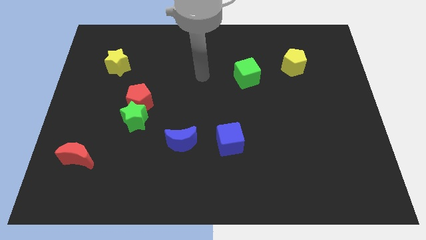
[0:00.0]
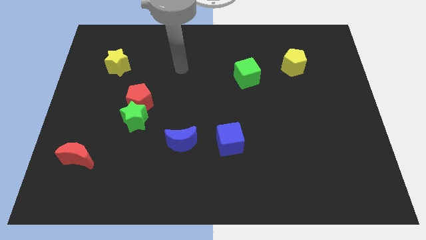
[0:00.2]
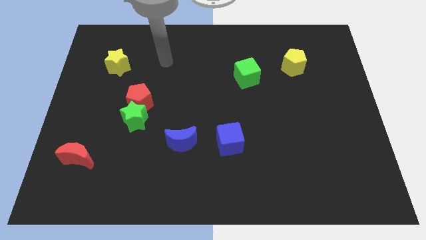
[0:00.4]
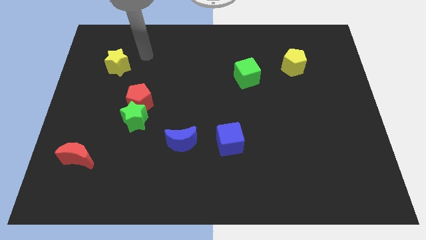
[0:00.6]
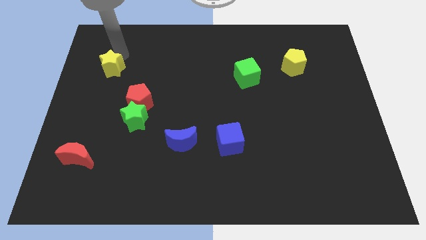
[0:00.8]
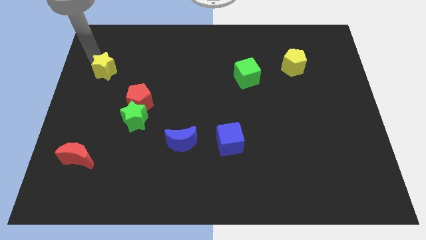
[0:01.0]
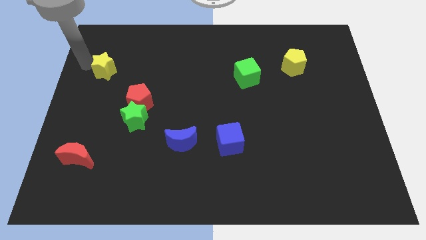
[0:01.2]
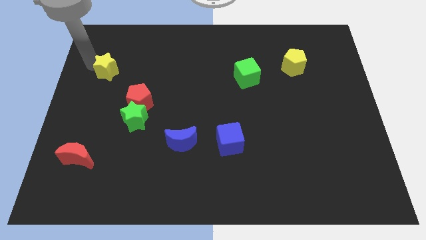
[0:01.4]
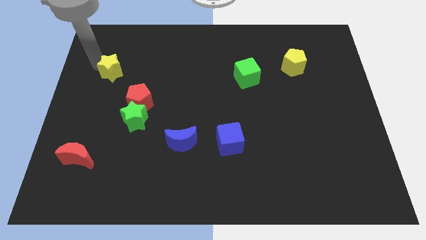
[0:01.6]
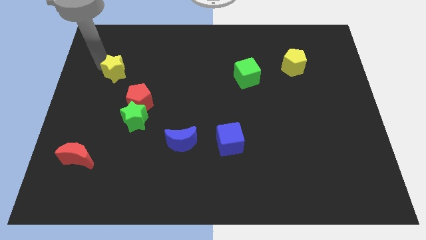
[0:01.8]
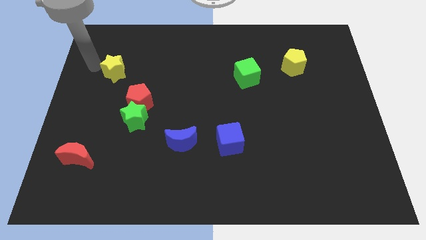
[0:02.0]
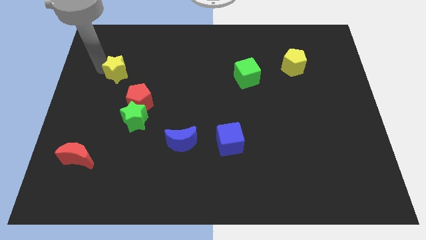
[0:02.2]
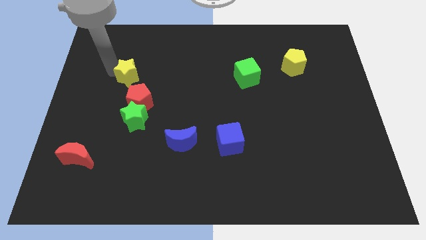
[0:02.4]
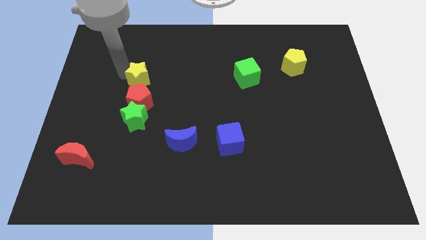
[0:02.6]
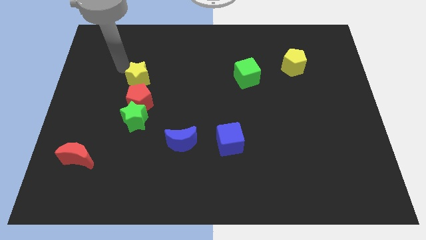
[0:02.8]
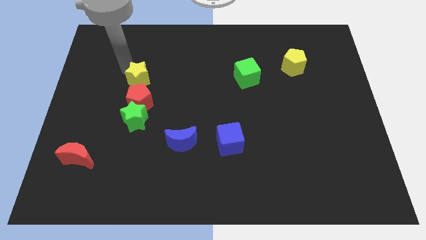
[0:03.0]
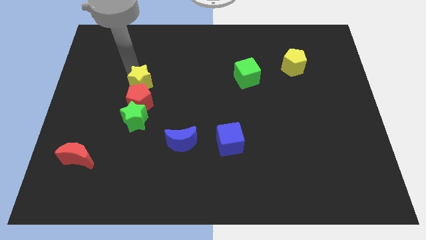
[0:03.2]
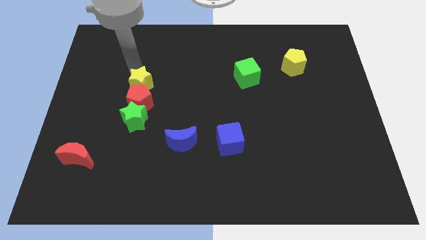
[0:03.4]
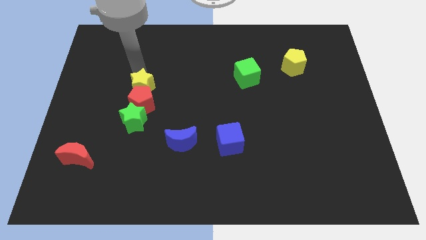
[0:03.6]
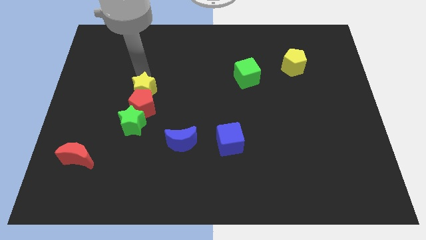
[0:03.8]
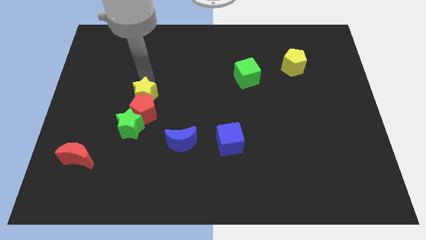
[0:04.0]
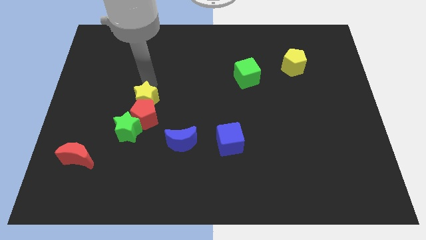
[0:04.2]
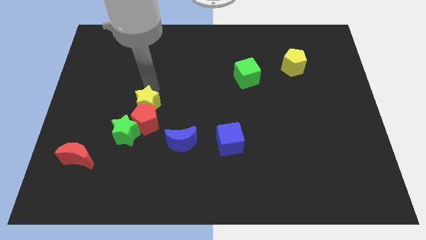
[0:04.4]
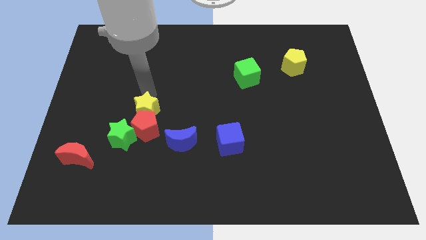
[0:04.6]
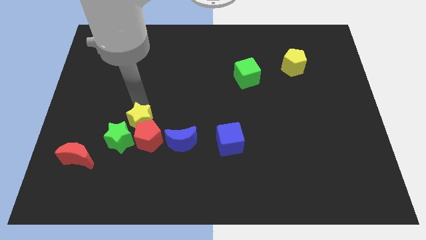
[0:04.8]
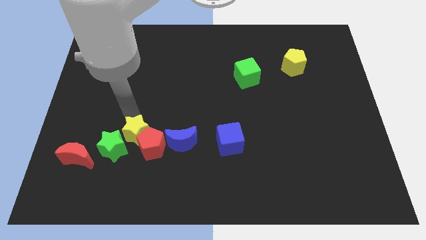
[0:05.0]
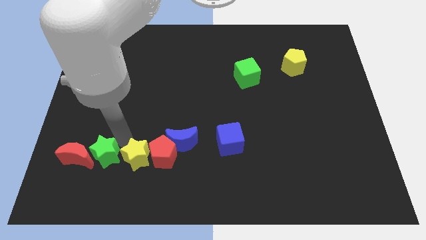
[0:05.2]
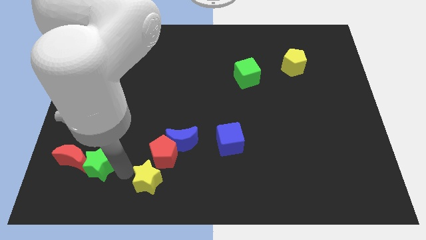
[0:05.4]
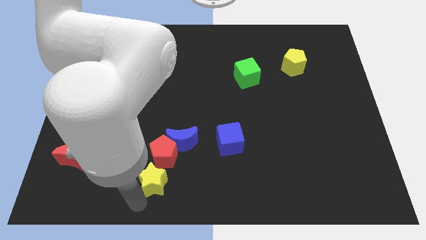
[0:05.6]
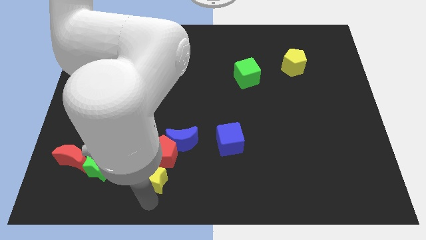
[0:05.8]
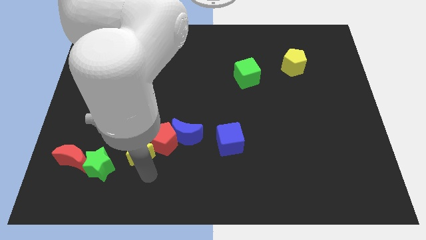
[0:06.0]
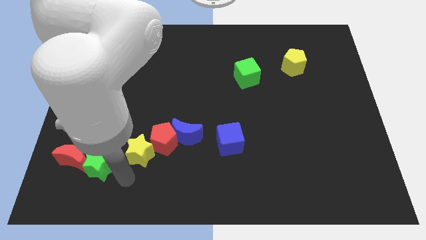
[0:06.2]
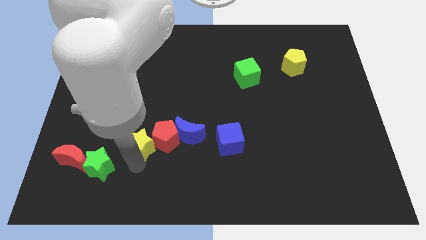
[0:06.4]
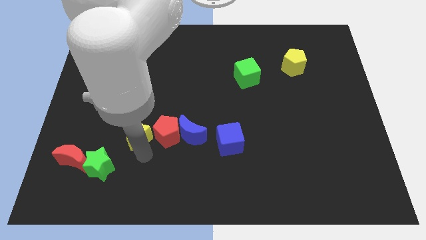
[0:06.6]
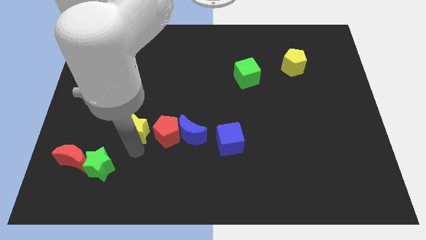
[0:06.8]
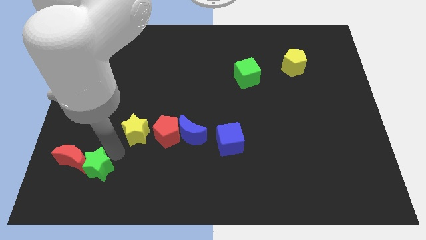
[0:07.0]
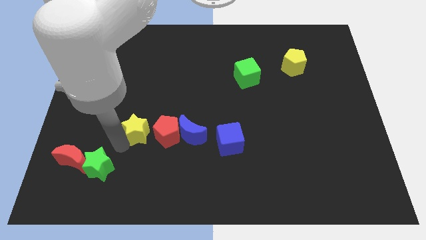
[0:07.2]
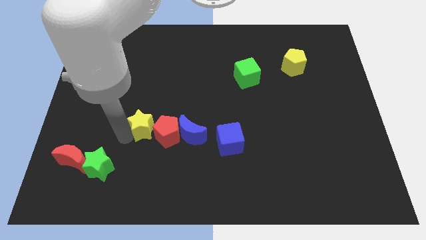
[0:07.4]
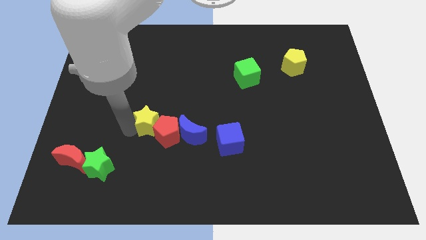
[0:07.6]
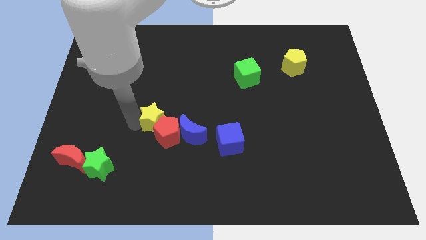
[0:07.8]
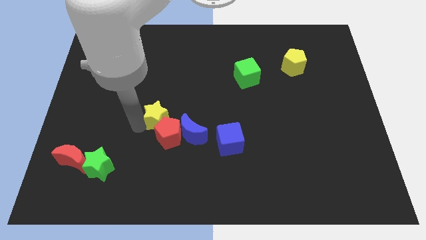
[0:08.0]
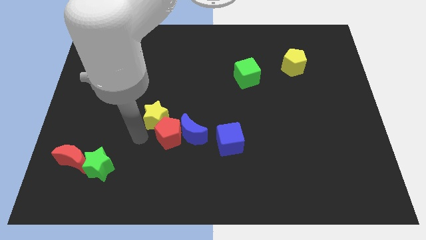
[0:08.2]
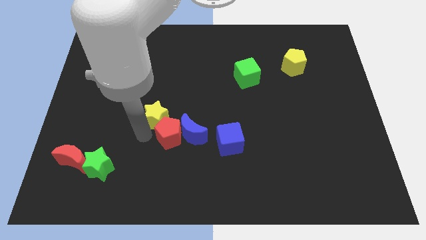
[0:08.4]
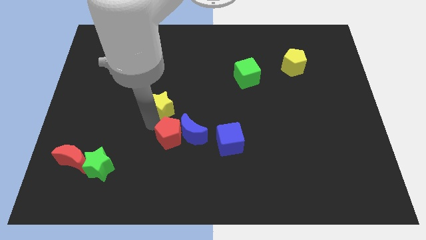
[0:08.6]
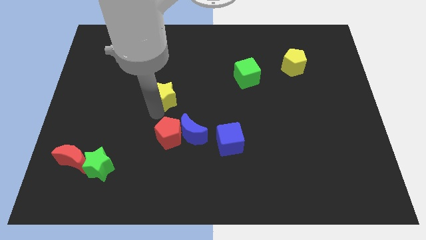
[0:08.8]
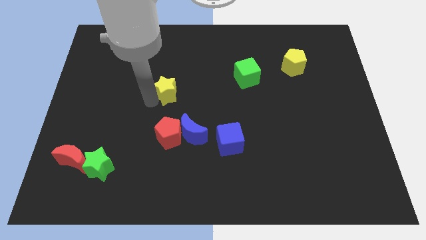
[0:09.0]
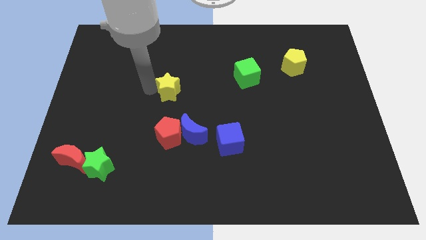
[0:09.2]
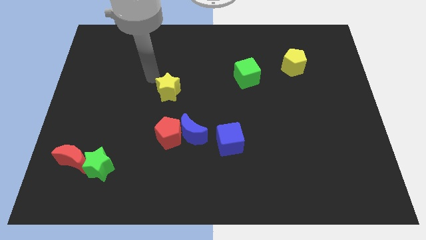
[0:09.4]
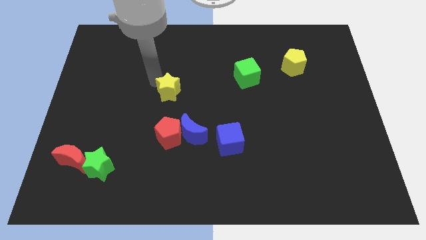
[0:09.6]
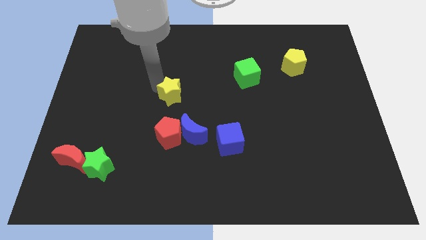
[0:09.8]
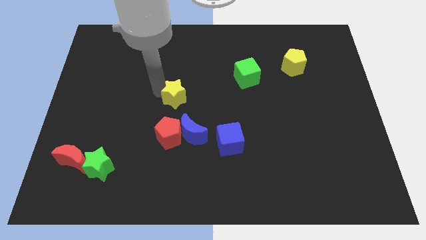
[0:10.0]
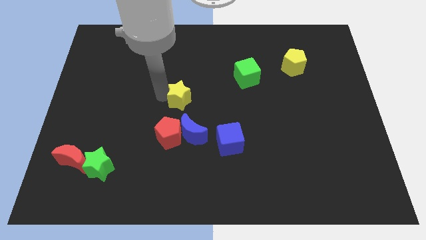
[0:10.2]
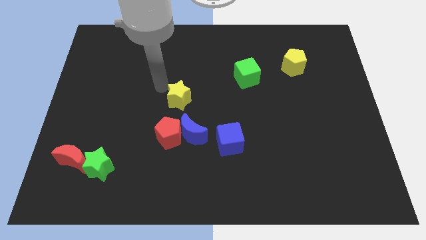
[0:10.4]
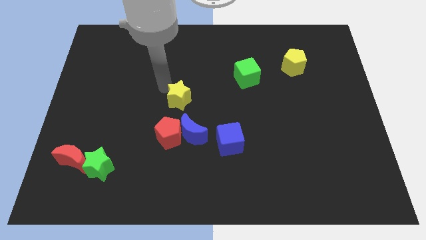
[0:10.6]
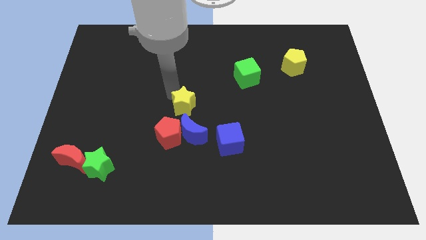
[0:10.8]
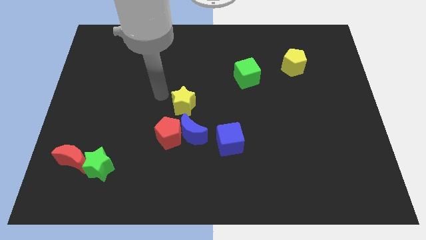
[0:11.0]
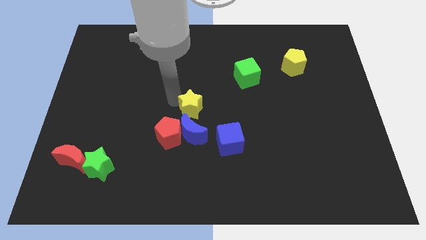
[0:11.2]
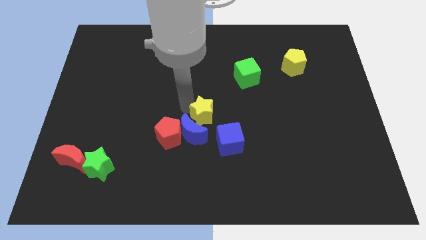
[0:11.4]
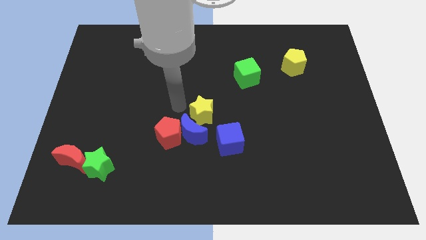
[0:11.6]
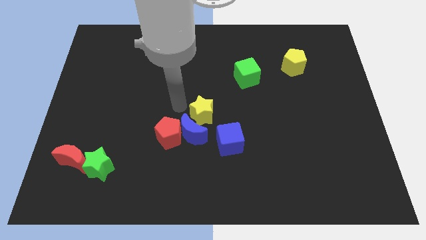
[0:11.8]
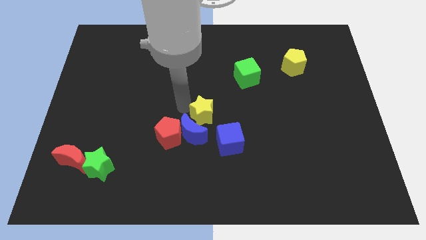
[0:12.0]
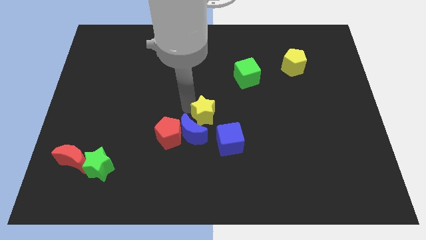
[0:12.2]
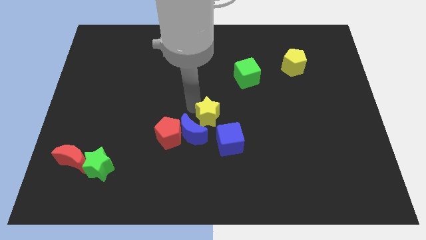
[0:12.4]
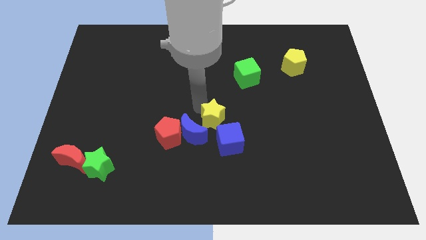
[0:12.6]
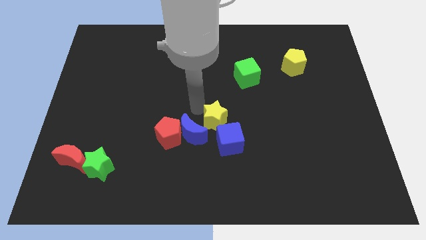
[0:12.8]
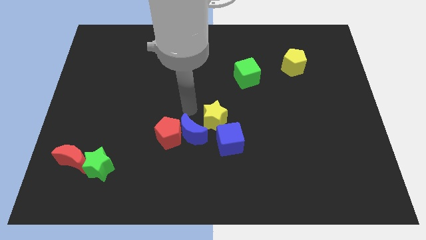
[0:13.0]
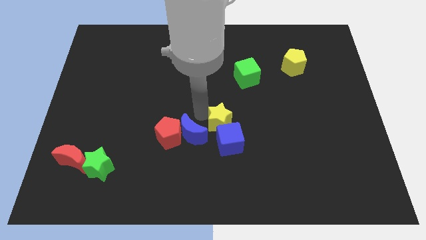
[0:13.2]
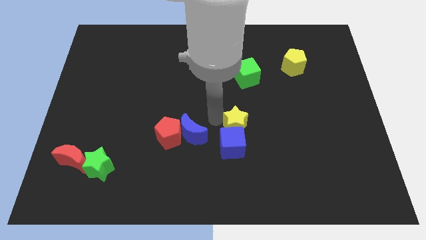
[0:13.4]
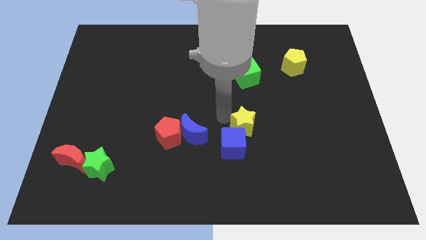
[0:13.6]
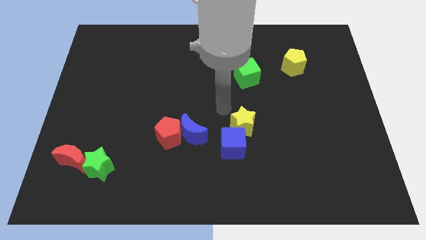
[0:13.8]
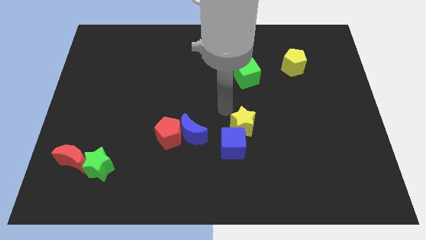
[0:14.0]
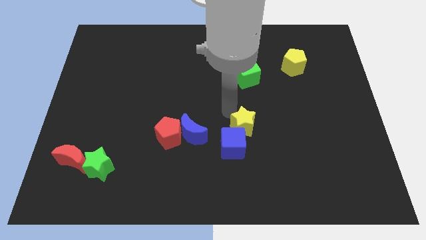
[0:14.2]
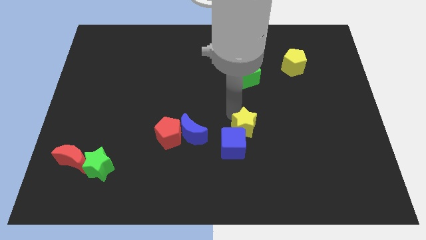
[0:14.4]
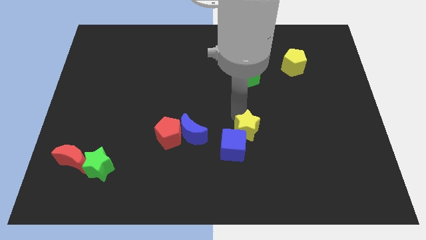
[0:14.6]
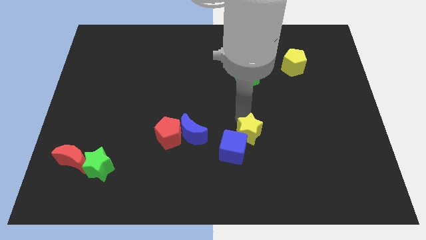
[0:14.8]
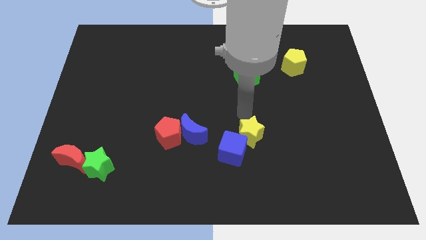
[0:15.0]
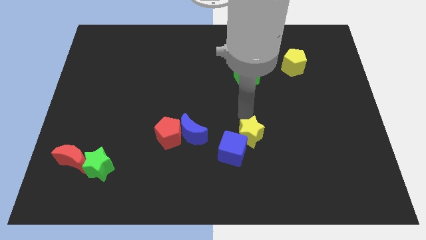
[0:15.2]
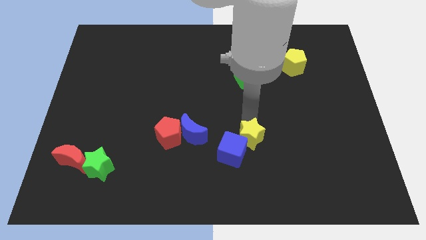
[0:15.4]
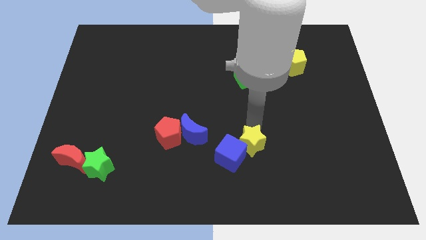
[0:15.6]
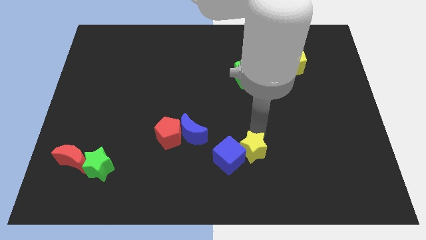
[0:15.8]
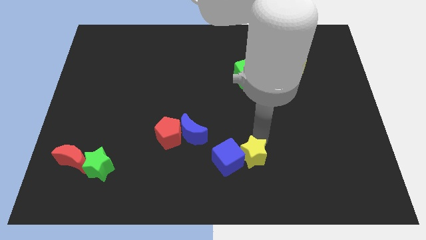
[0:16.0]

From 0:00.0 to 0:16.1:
move the yellow star to the bottom right of the blue cube

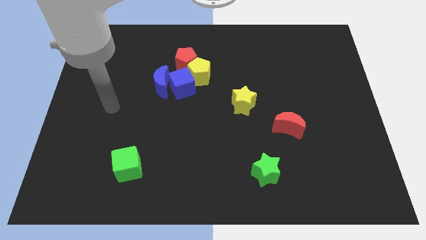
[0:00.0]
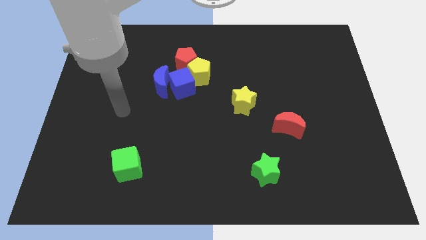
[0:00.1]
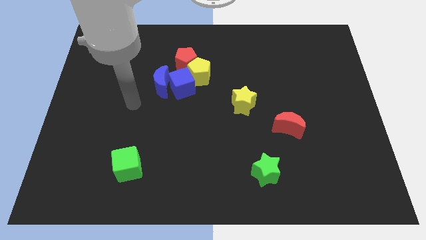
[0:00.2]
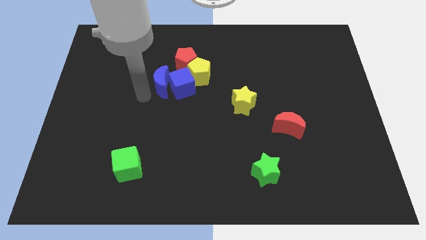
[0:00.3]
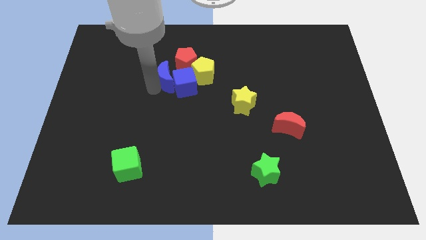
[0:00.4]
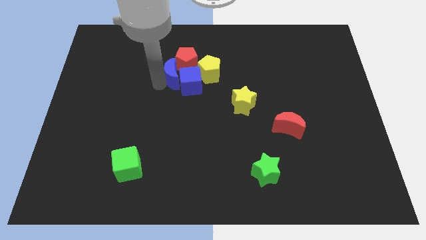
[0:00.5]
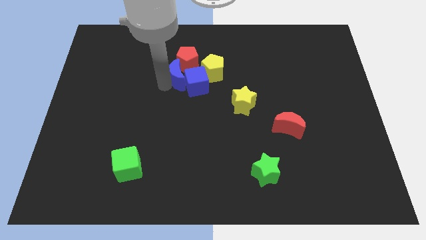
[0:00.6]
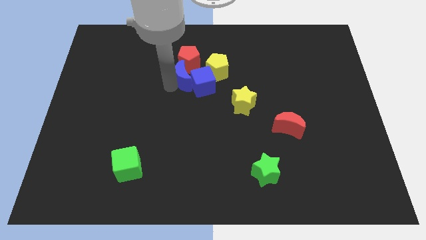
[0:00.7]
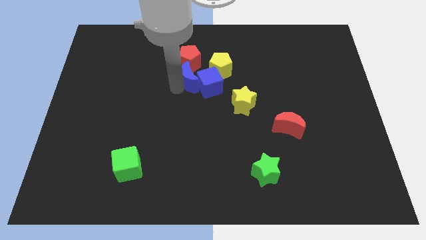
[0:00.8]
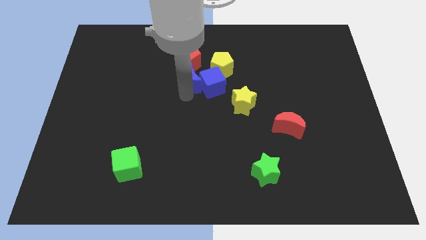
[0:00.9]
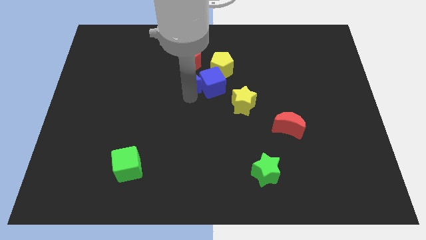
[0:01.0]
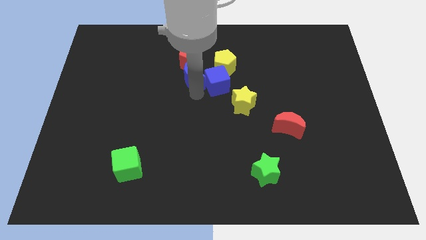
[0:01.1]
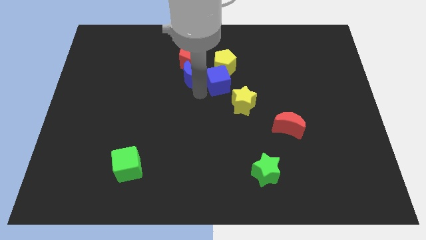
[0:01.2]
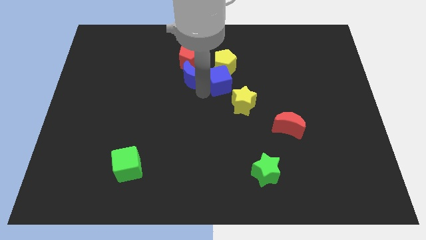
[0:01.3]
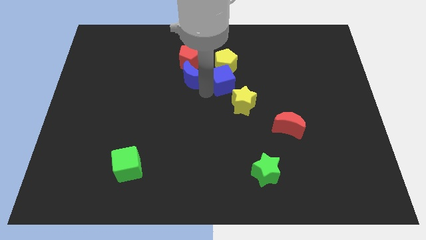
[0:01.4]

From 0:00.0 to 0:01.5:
push the blue cube to the top of the yellow star
